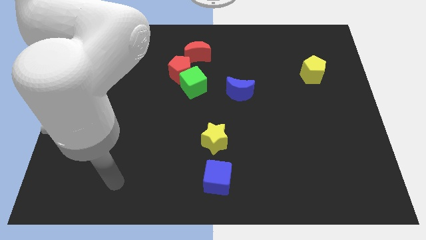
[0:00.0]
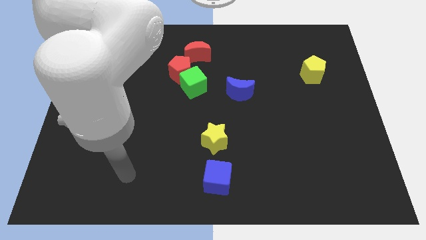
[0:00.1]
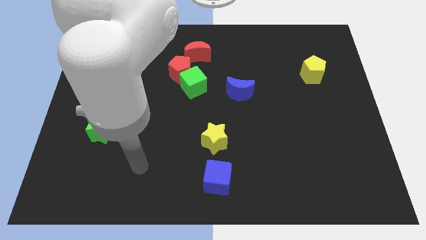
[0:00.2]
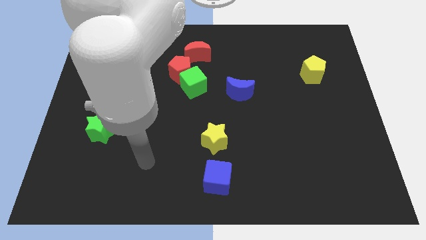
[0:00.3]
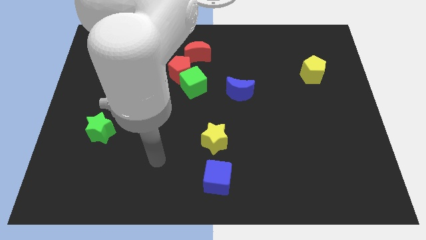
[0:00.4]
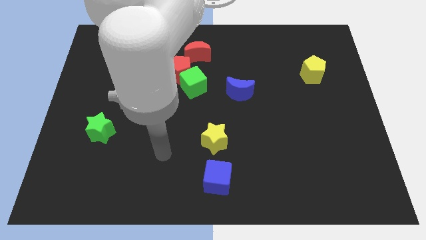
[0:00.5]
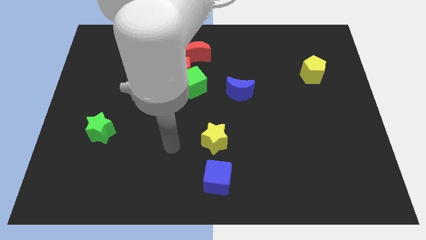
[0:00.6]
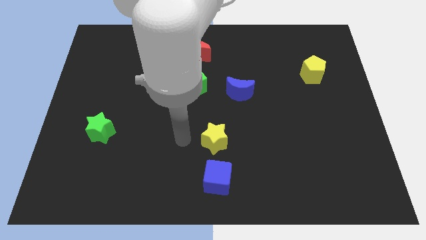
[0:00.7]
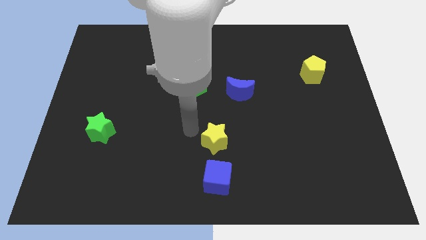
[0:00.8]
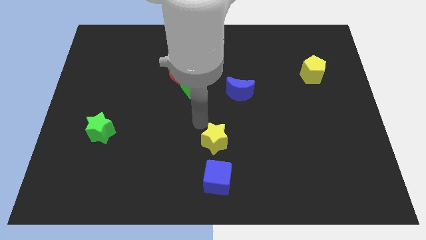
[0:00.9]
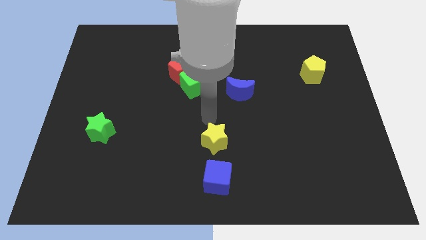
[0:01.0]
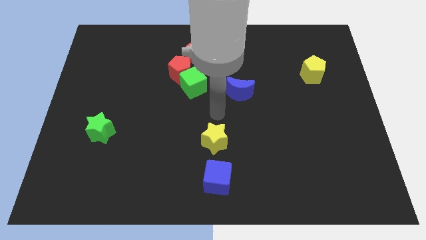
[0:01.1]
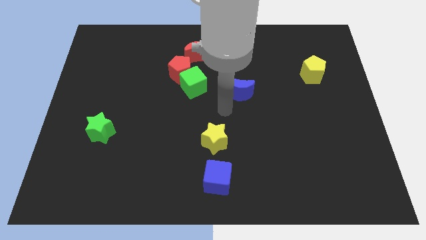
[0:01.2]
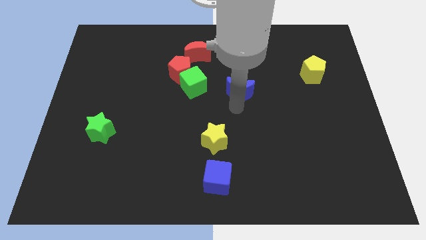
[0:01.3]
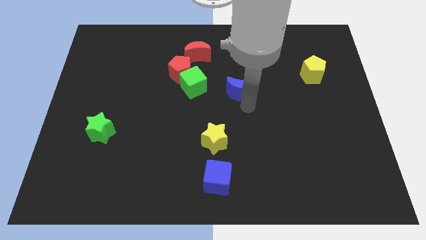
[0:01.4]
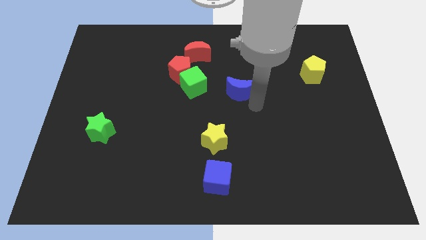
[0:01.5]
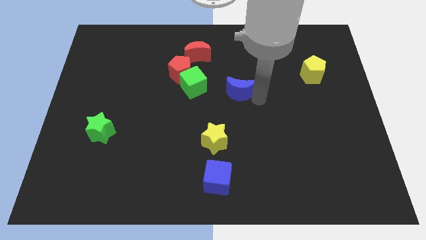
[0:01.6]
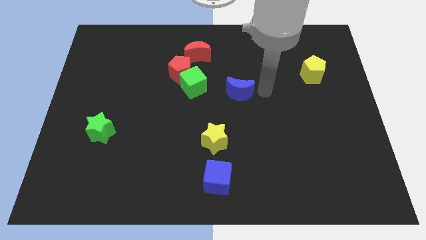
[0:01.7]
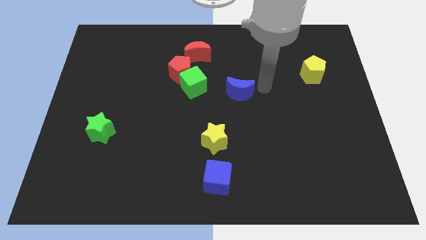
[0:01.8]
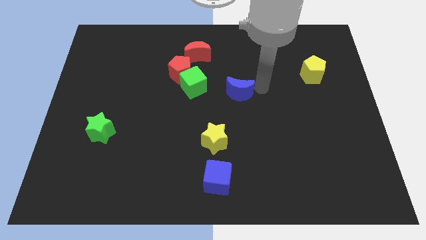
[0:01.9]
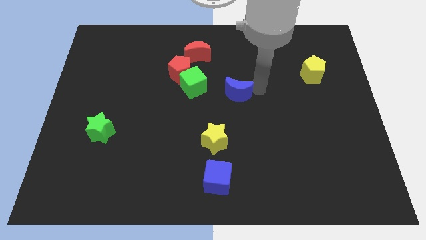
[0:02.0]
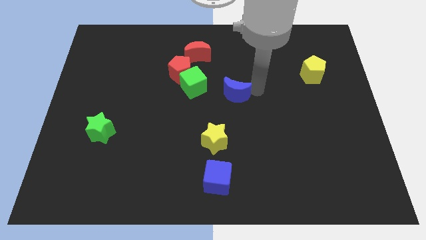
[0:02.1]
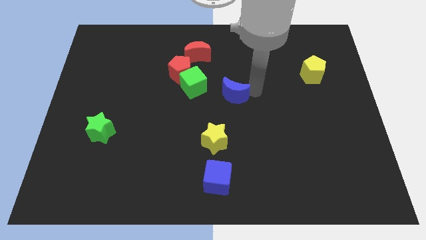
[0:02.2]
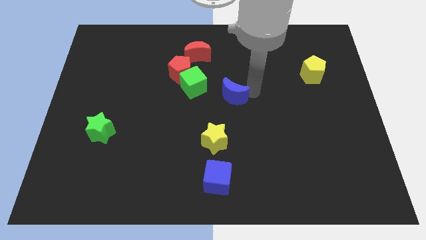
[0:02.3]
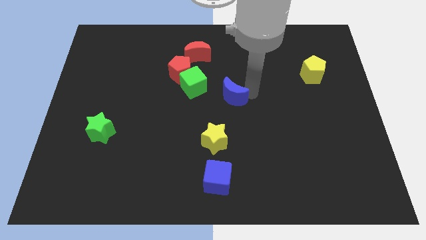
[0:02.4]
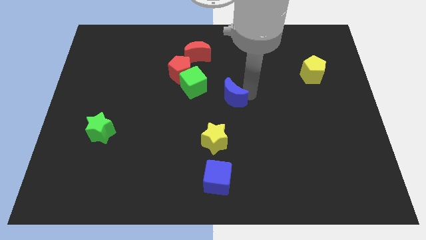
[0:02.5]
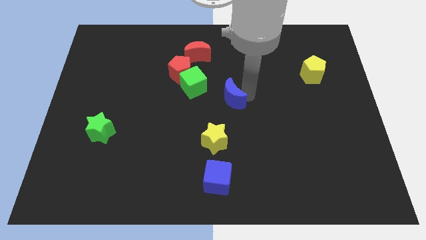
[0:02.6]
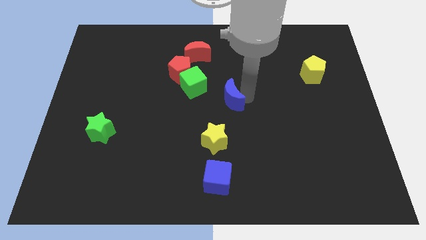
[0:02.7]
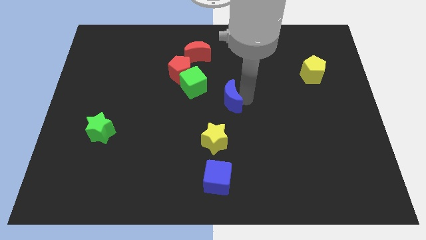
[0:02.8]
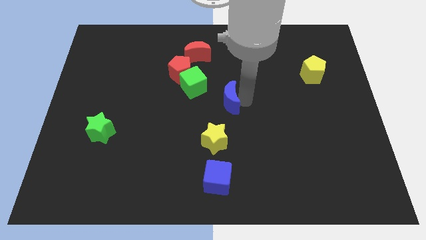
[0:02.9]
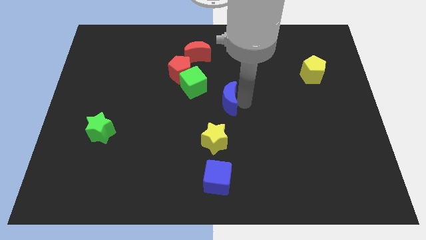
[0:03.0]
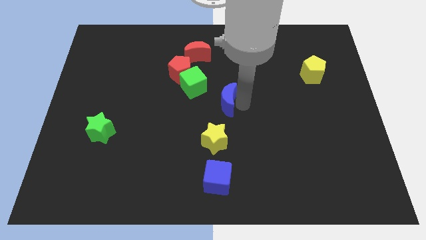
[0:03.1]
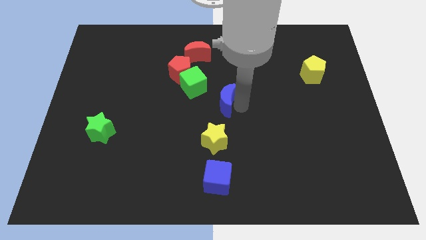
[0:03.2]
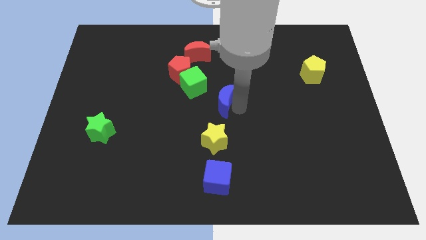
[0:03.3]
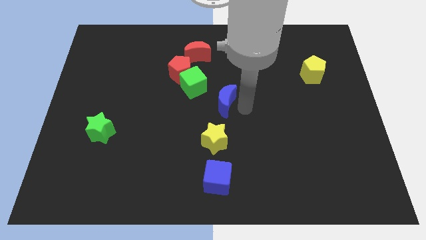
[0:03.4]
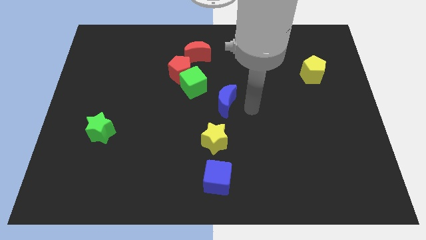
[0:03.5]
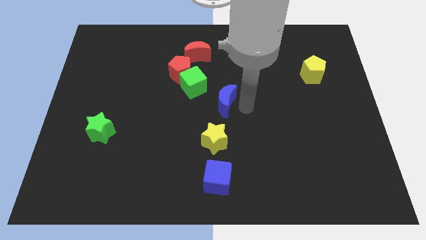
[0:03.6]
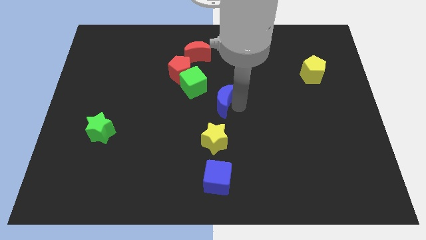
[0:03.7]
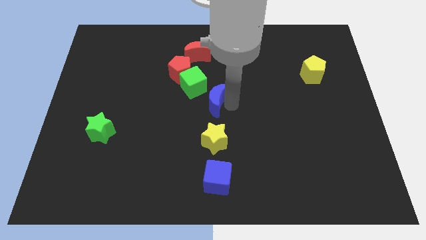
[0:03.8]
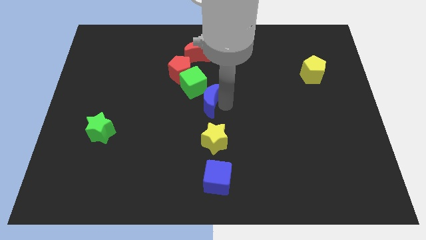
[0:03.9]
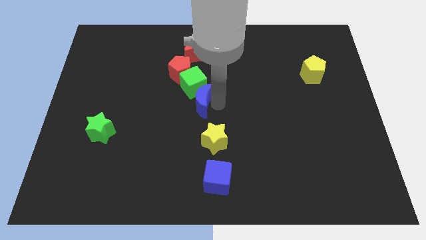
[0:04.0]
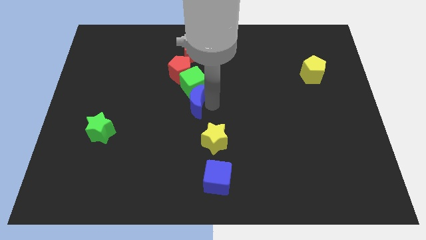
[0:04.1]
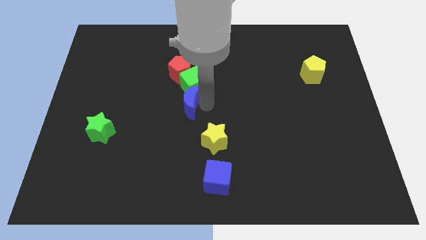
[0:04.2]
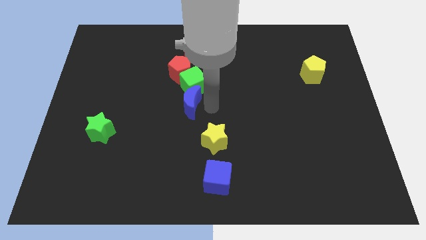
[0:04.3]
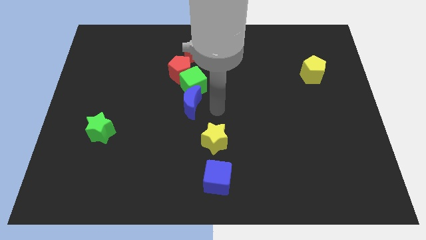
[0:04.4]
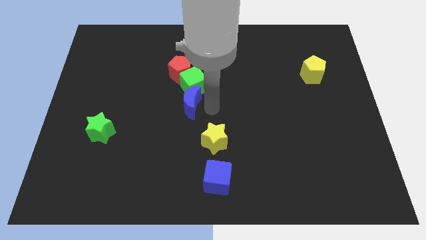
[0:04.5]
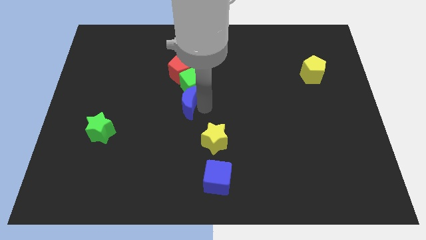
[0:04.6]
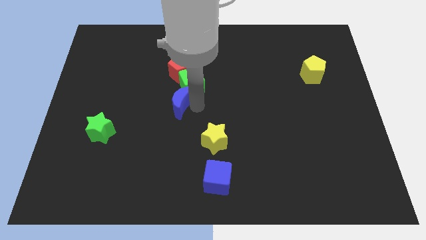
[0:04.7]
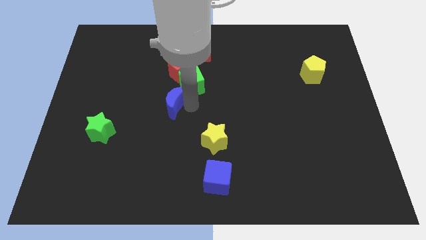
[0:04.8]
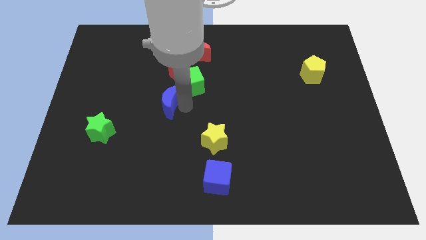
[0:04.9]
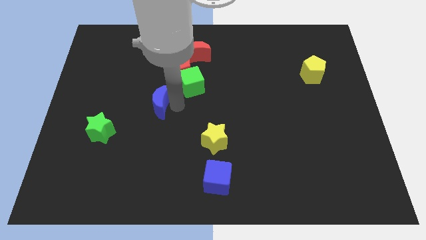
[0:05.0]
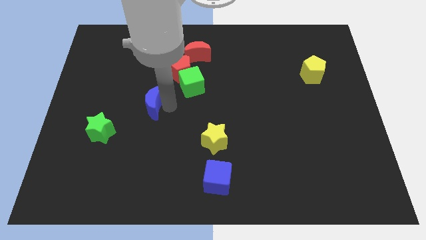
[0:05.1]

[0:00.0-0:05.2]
push the blue moon left

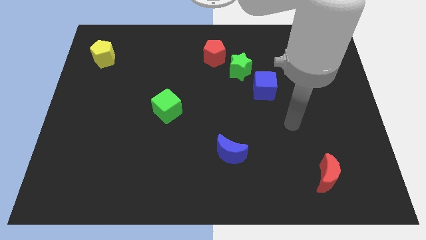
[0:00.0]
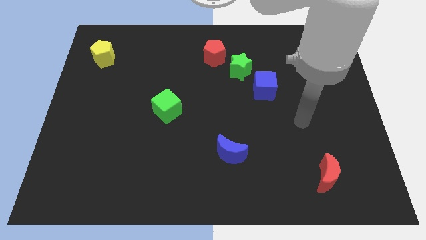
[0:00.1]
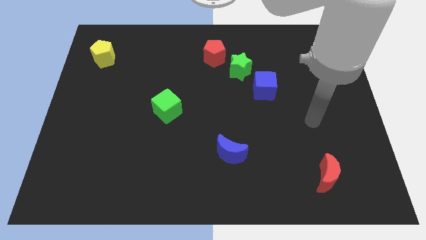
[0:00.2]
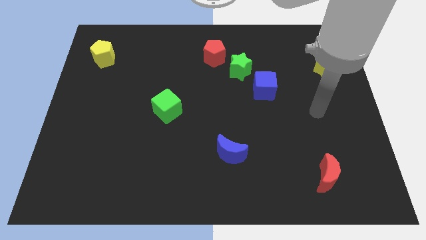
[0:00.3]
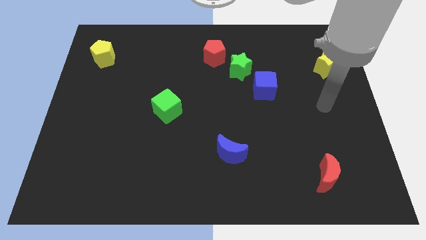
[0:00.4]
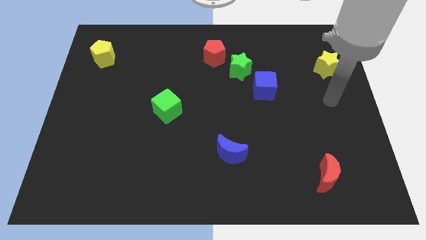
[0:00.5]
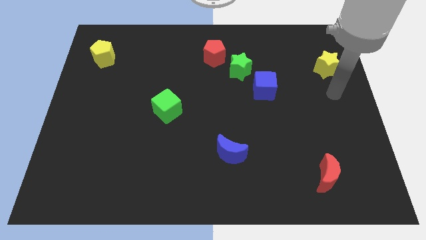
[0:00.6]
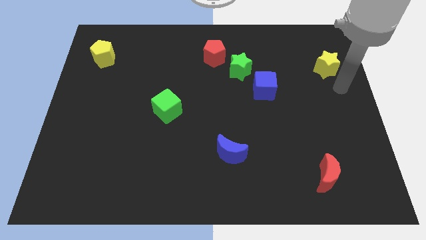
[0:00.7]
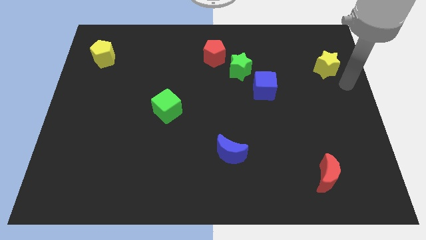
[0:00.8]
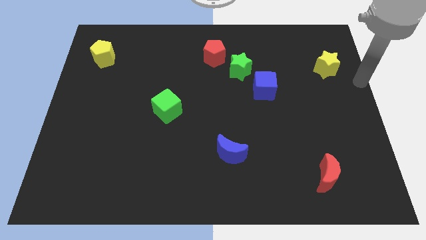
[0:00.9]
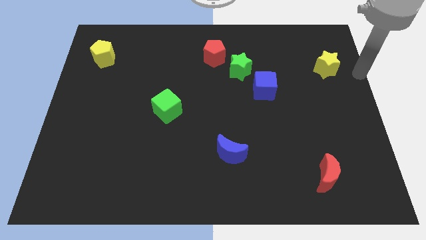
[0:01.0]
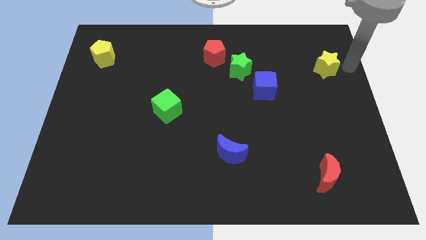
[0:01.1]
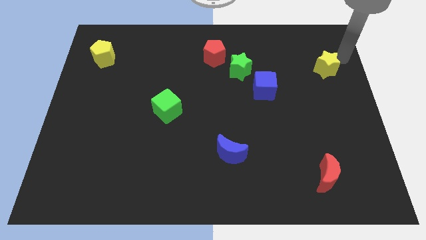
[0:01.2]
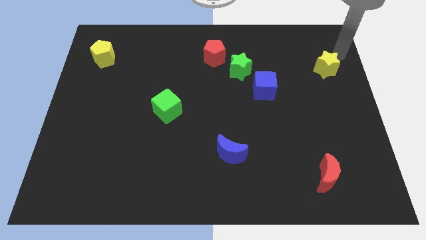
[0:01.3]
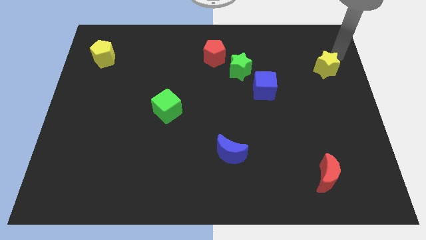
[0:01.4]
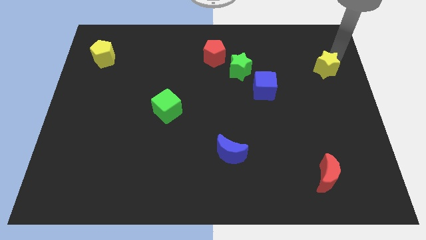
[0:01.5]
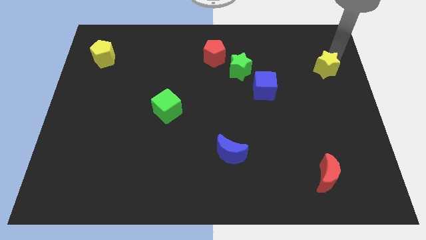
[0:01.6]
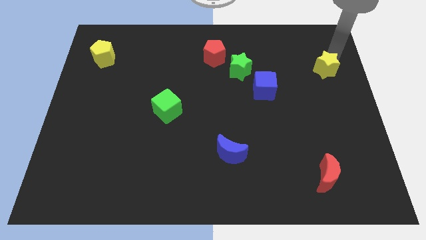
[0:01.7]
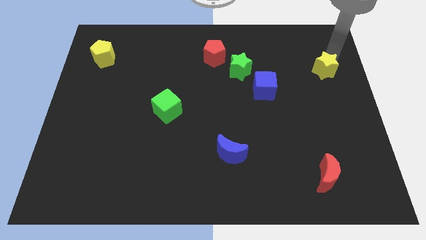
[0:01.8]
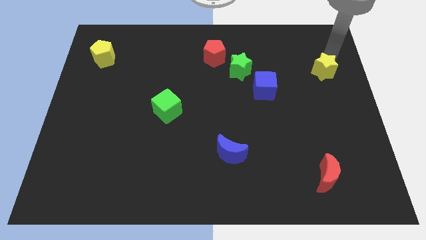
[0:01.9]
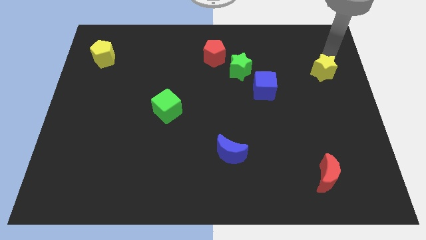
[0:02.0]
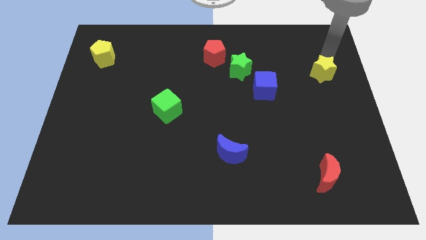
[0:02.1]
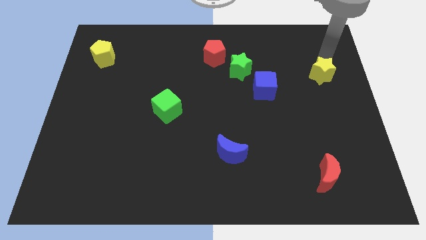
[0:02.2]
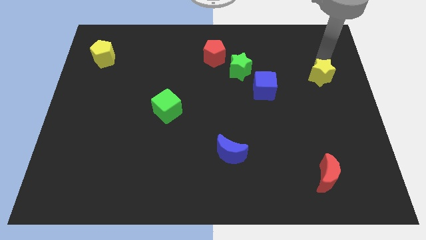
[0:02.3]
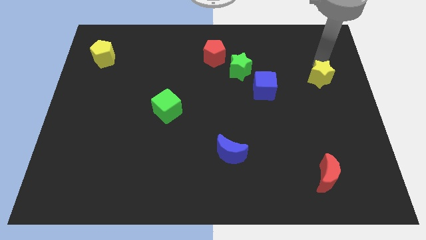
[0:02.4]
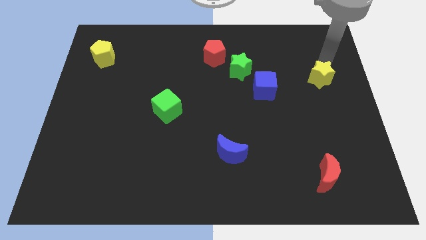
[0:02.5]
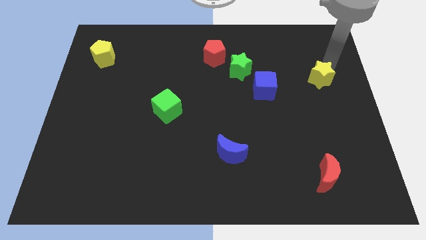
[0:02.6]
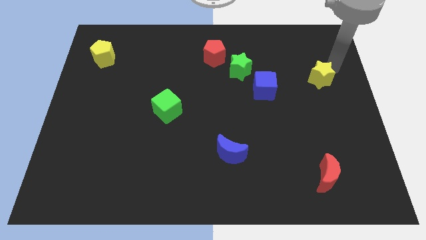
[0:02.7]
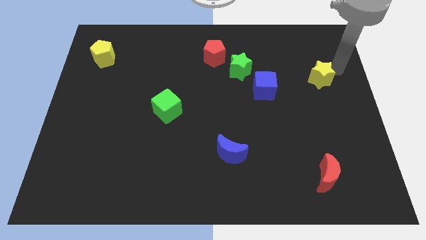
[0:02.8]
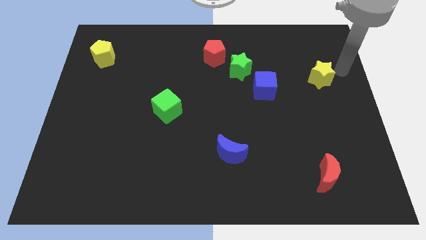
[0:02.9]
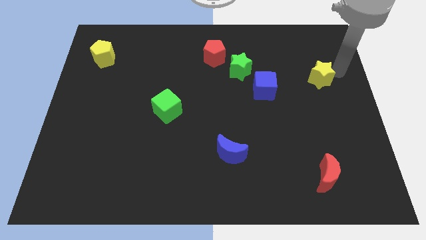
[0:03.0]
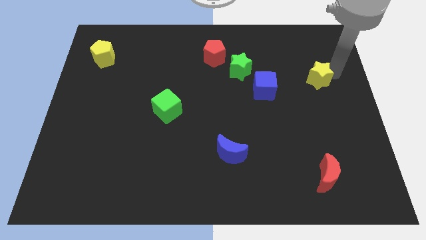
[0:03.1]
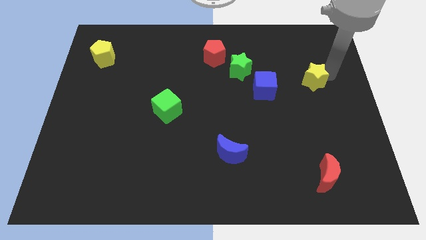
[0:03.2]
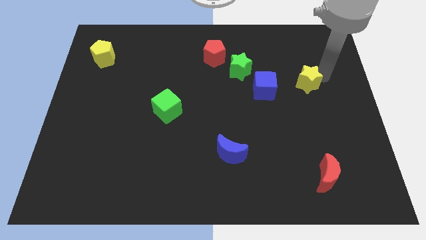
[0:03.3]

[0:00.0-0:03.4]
move the yellow star diagonally downwards and to the left a little
